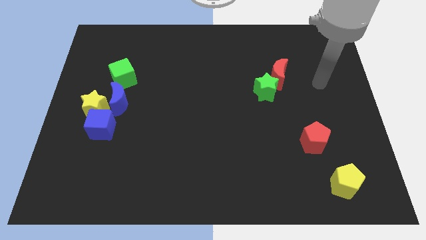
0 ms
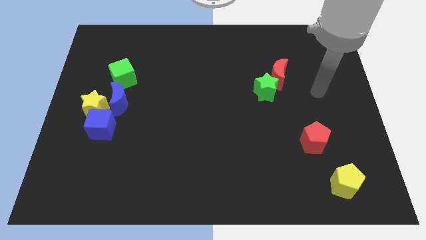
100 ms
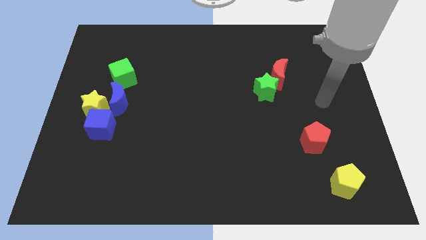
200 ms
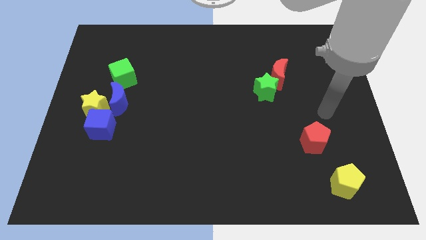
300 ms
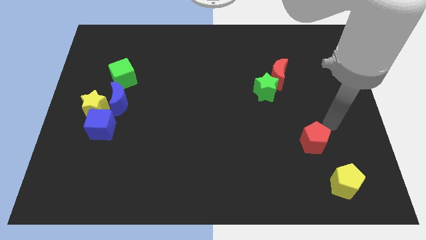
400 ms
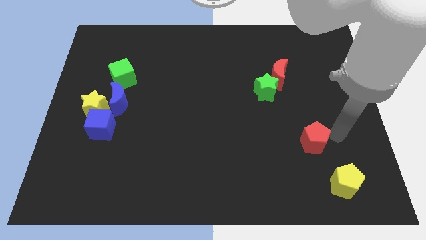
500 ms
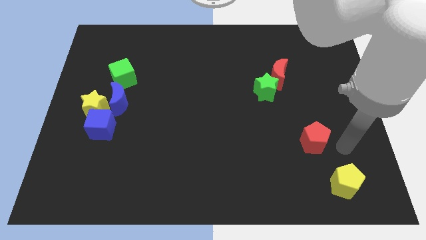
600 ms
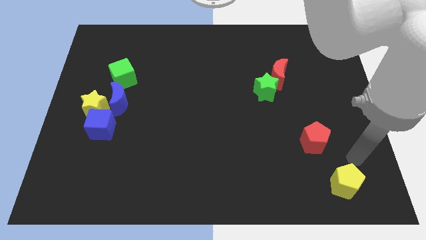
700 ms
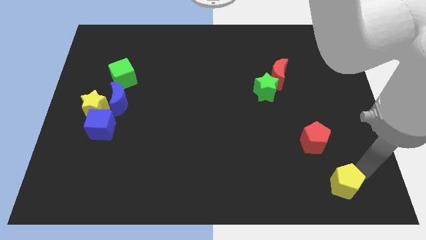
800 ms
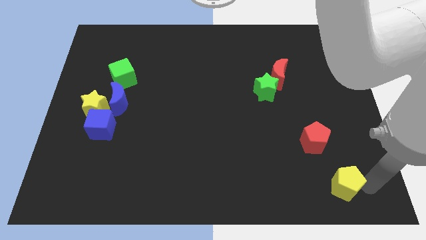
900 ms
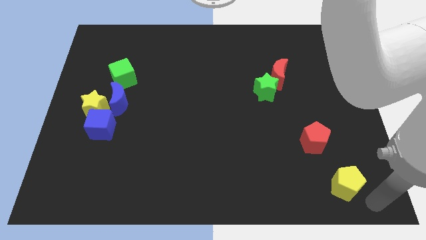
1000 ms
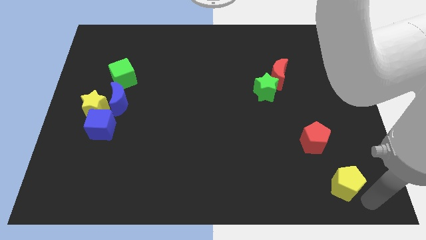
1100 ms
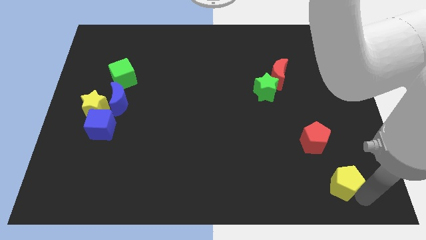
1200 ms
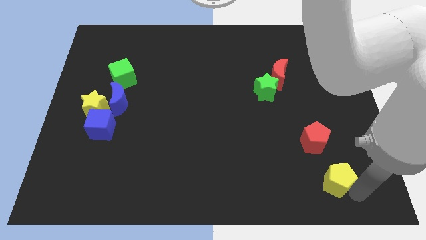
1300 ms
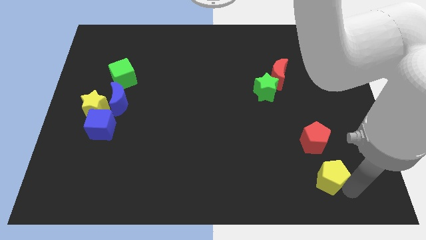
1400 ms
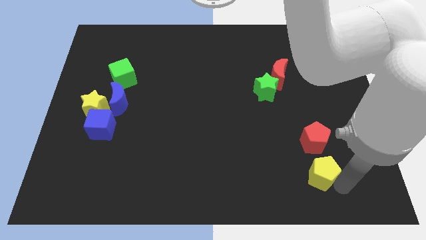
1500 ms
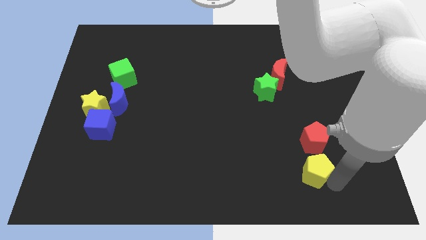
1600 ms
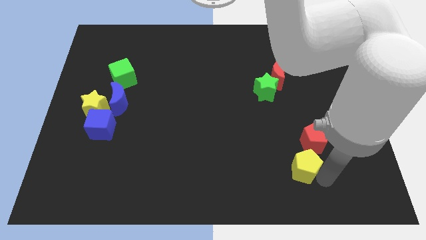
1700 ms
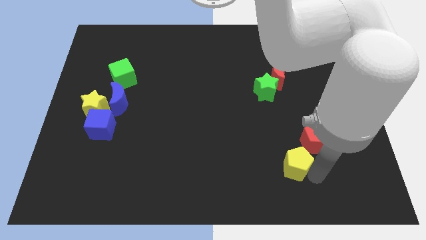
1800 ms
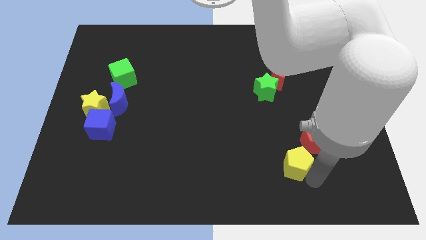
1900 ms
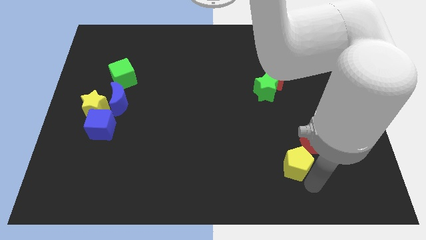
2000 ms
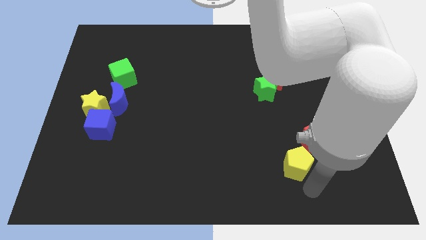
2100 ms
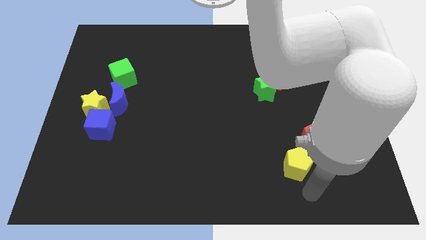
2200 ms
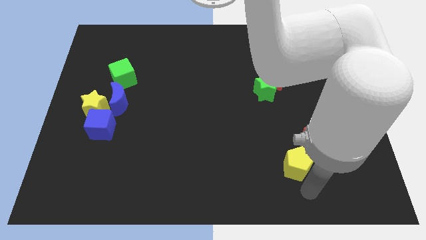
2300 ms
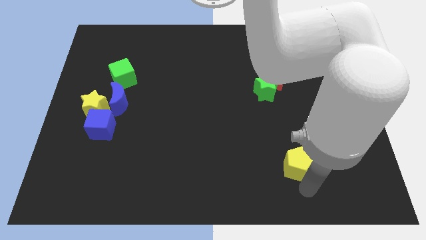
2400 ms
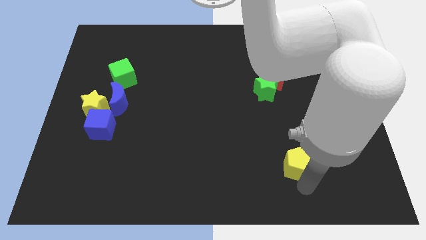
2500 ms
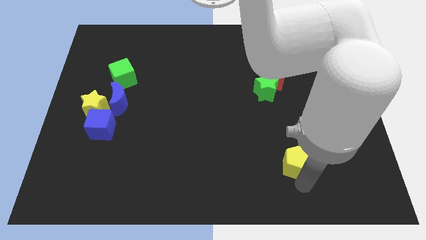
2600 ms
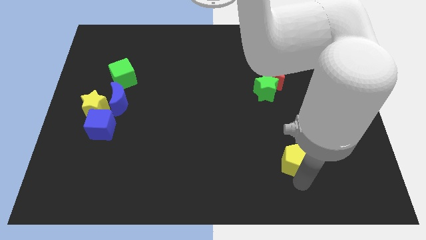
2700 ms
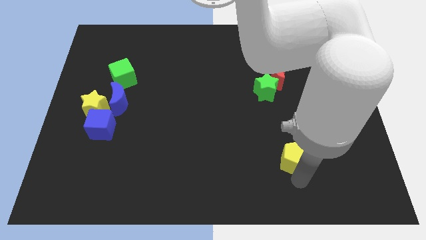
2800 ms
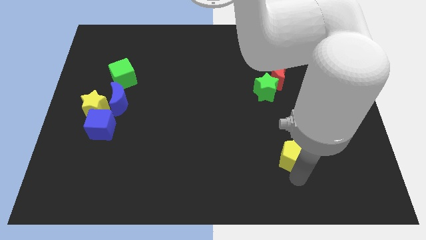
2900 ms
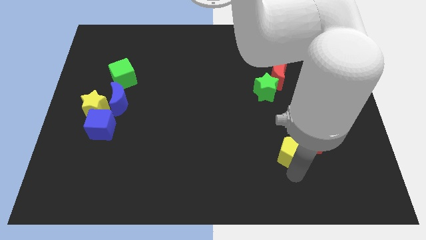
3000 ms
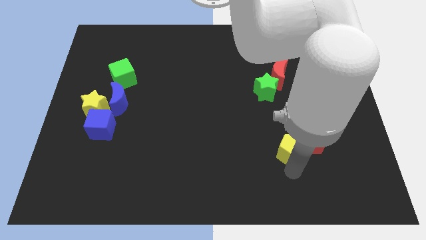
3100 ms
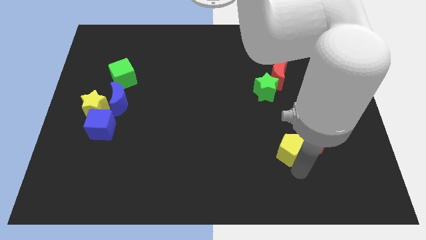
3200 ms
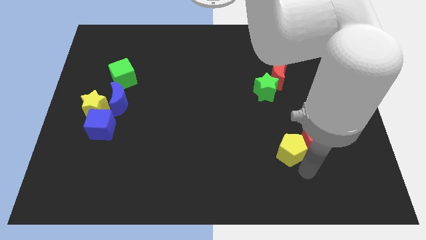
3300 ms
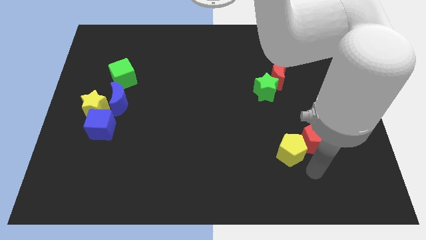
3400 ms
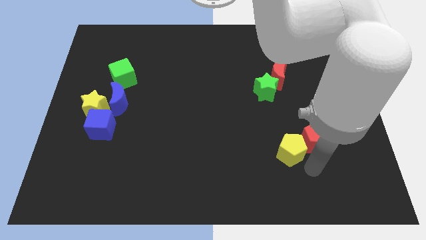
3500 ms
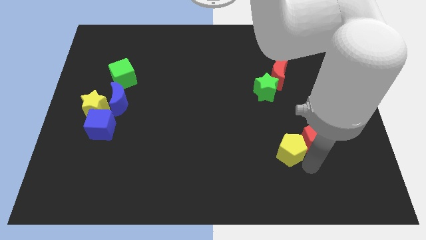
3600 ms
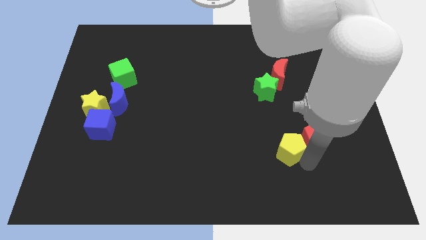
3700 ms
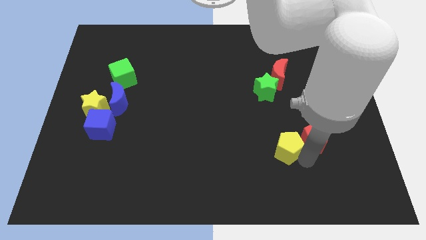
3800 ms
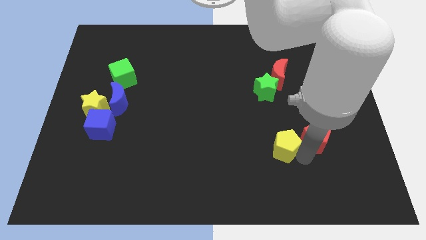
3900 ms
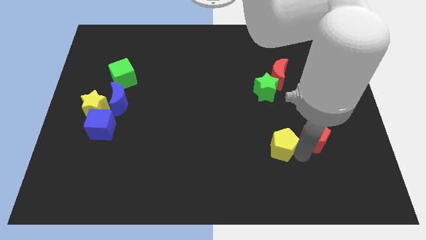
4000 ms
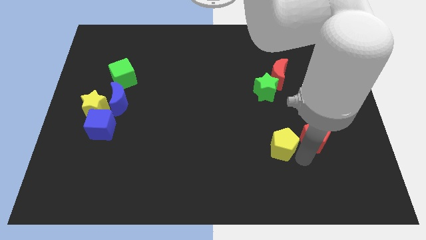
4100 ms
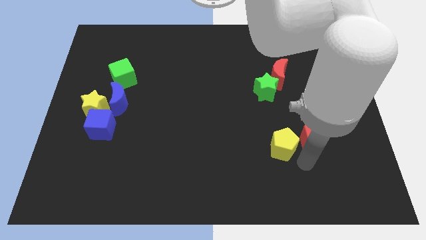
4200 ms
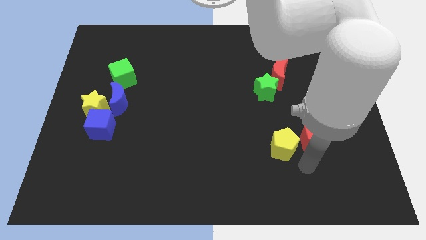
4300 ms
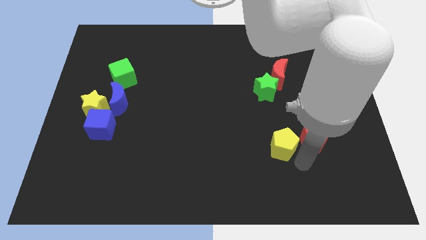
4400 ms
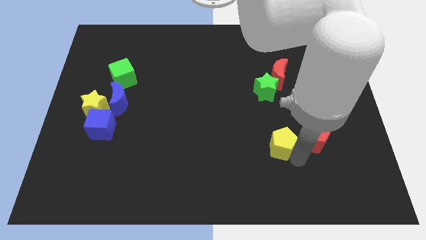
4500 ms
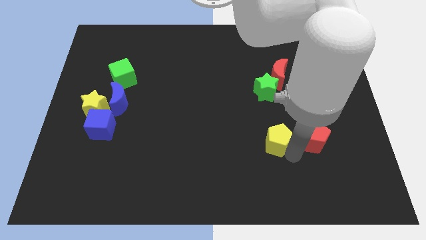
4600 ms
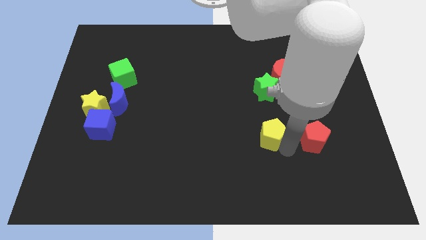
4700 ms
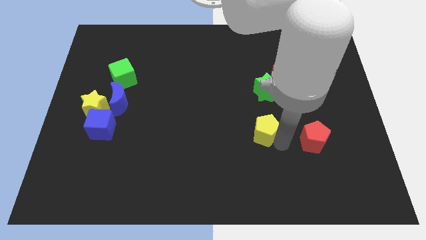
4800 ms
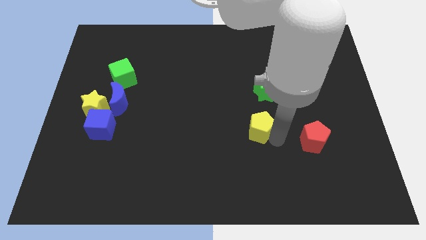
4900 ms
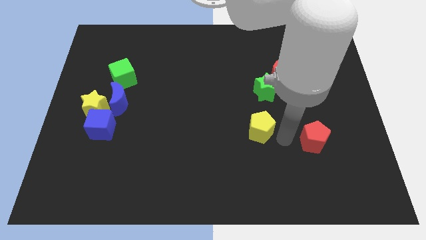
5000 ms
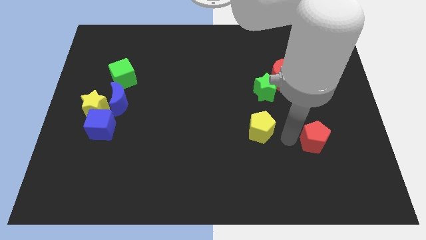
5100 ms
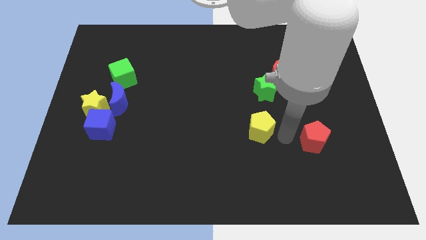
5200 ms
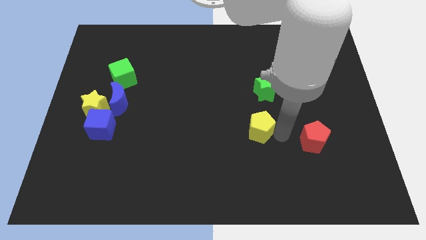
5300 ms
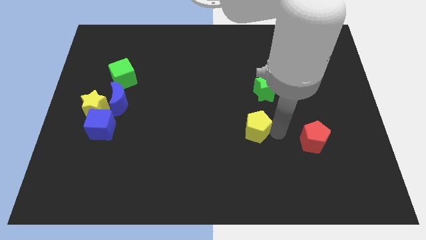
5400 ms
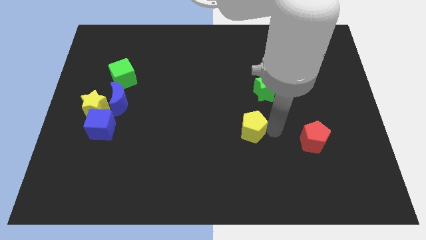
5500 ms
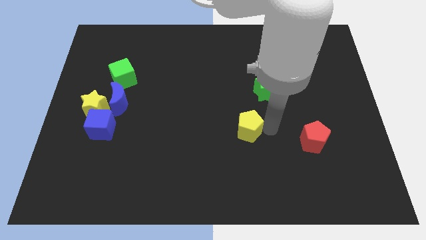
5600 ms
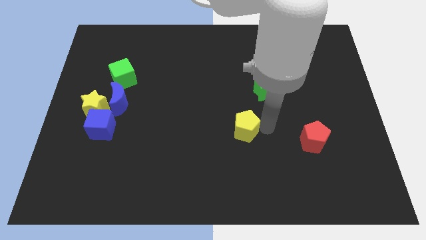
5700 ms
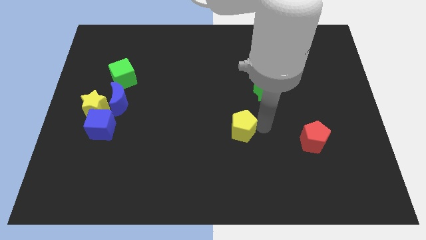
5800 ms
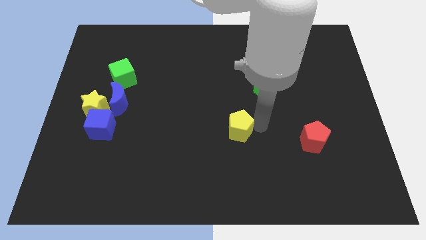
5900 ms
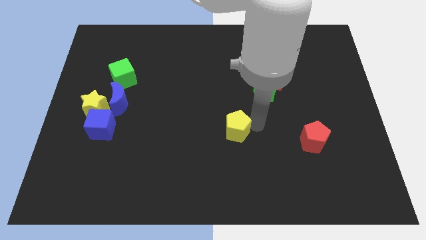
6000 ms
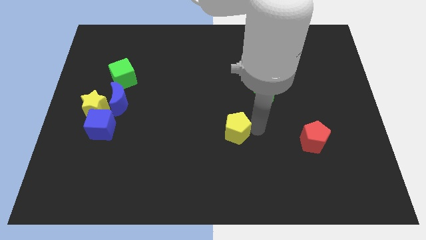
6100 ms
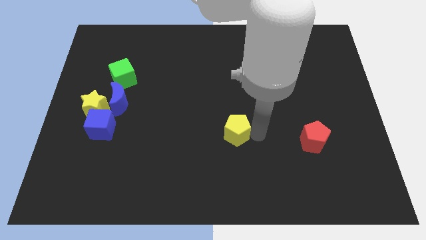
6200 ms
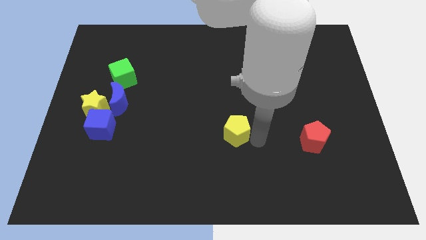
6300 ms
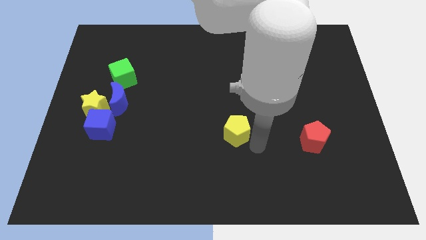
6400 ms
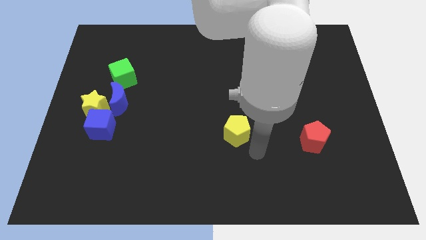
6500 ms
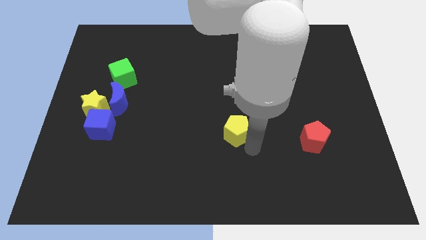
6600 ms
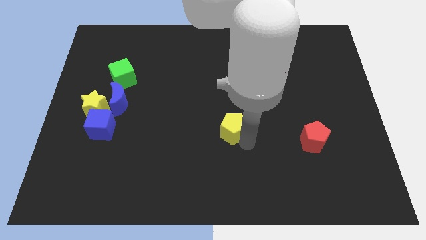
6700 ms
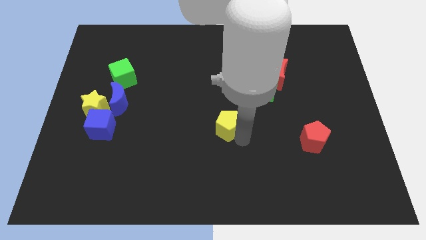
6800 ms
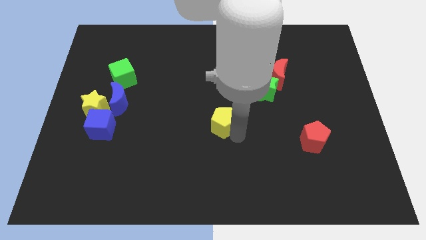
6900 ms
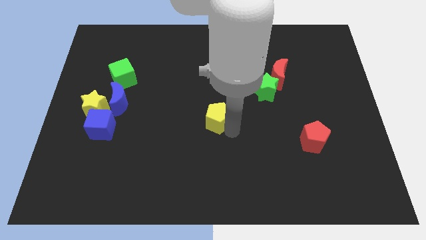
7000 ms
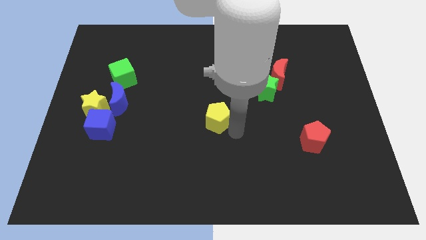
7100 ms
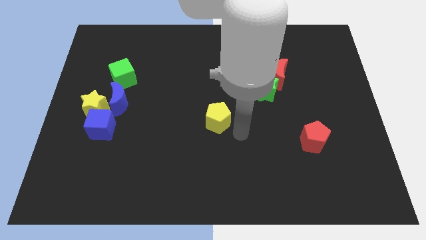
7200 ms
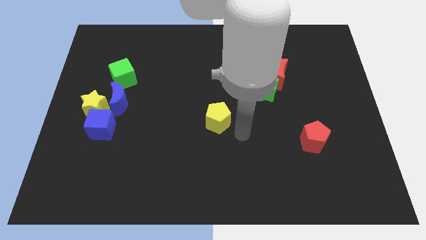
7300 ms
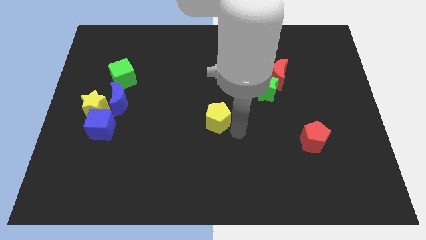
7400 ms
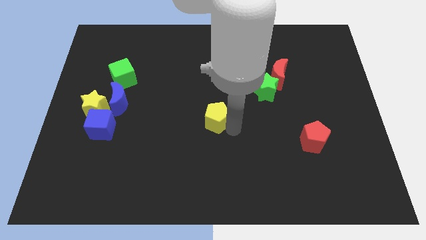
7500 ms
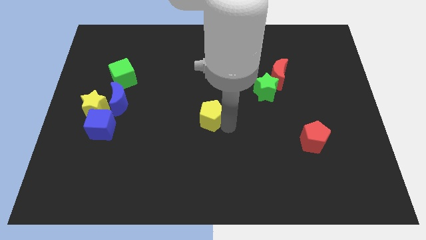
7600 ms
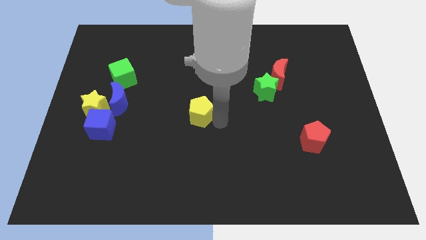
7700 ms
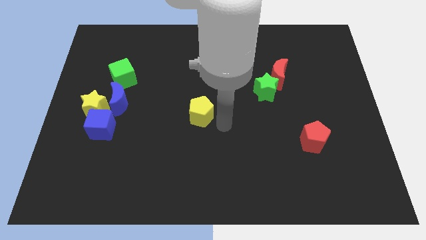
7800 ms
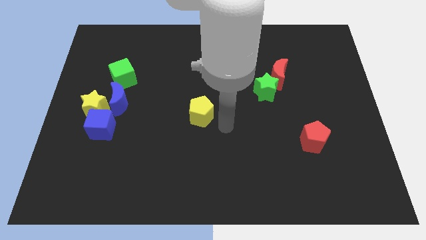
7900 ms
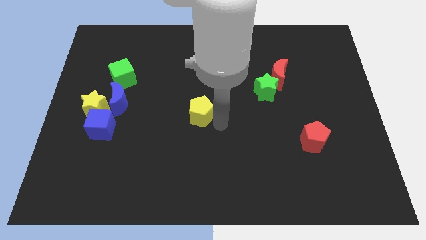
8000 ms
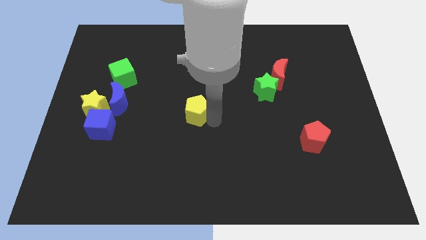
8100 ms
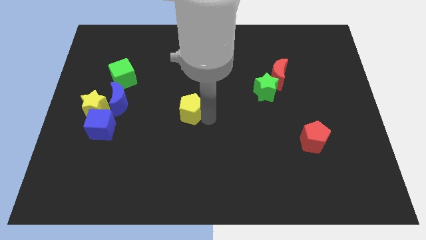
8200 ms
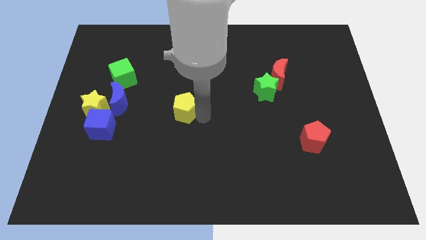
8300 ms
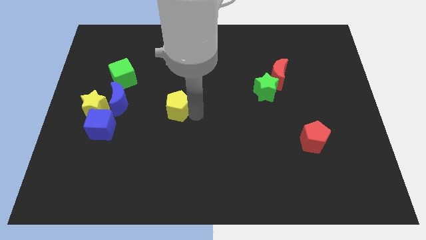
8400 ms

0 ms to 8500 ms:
slide the yellow pentagon to the right side of the blue moon
